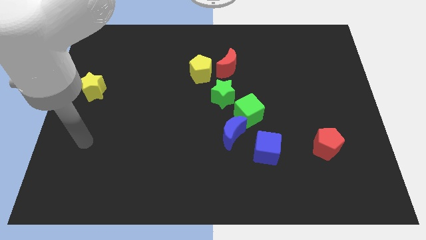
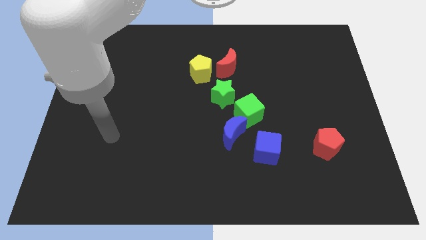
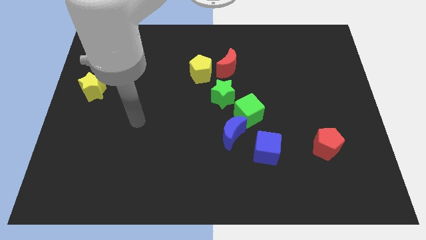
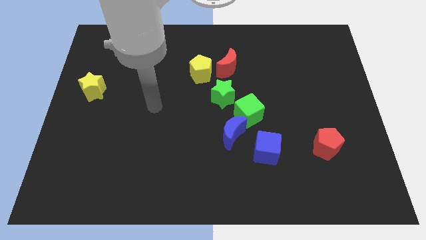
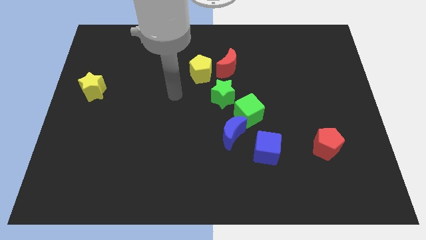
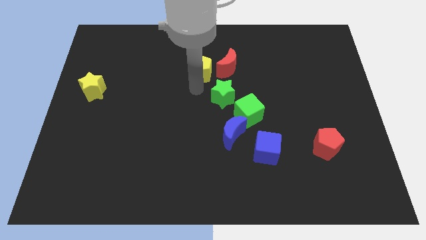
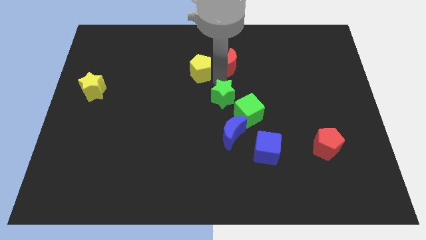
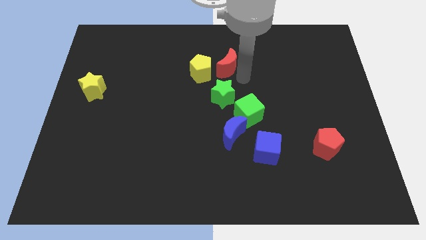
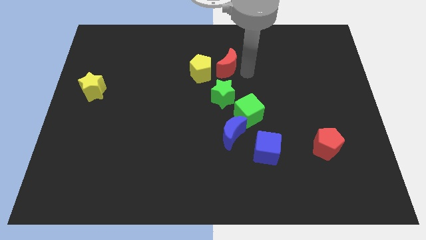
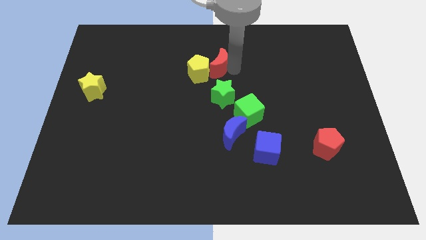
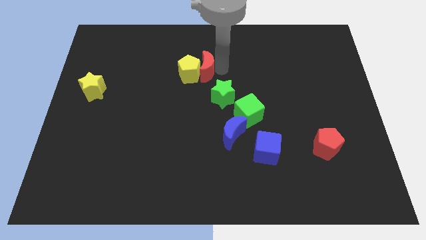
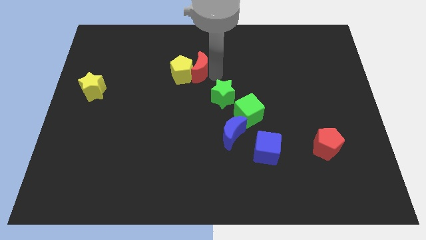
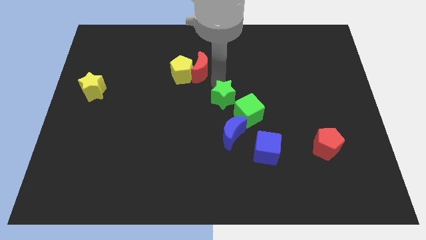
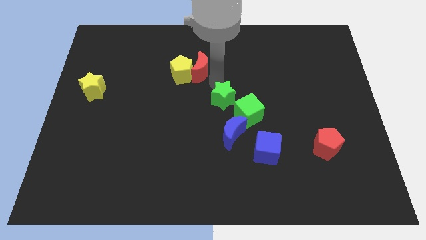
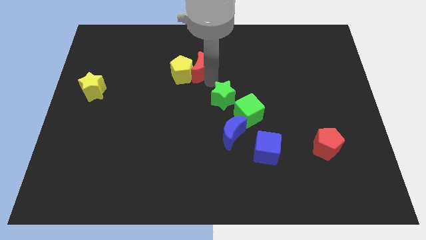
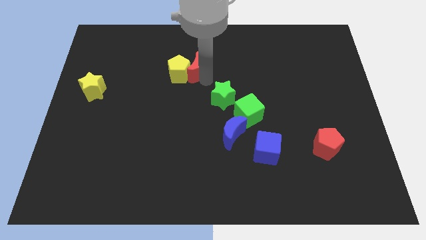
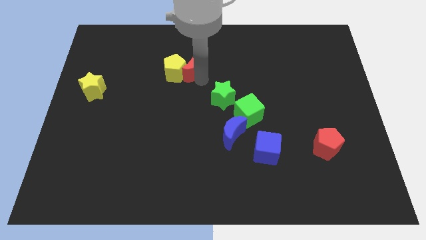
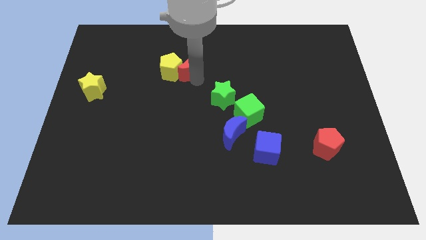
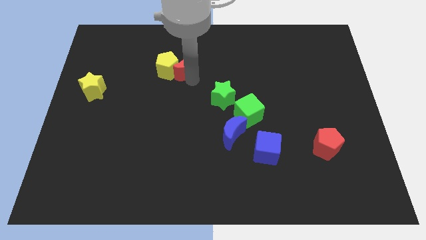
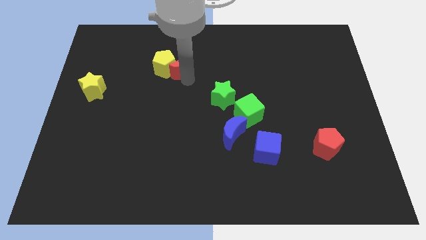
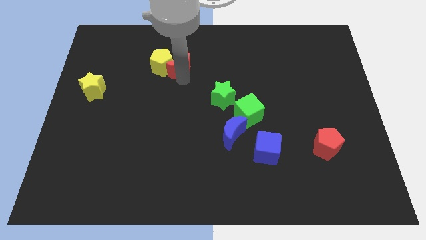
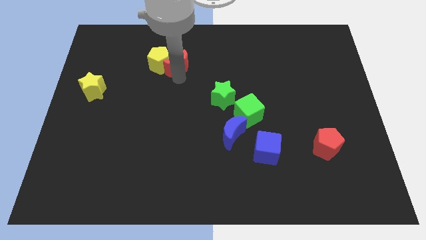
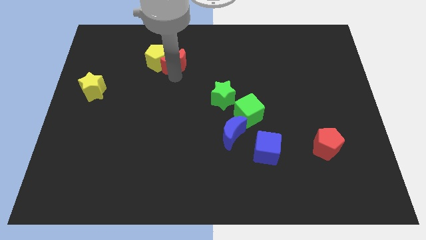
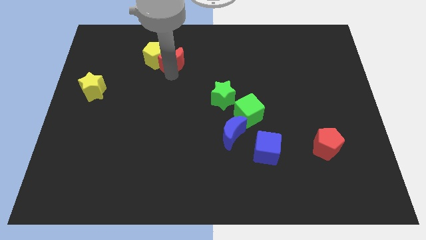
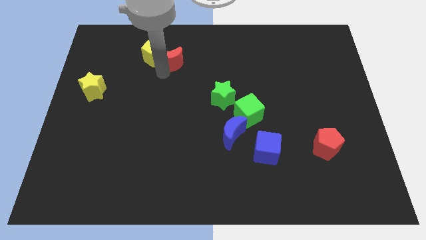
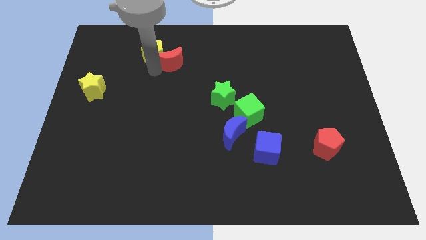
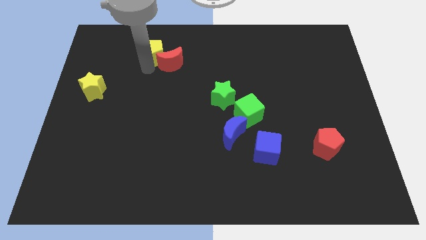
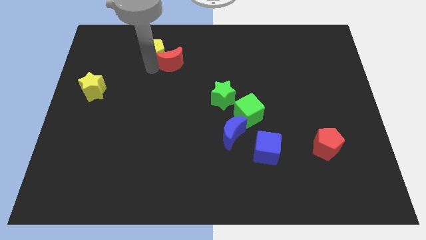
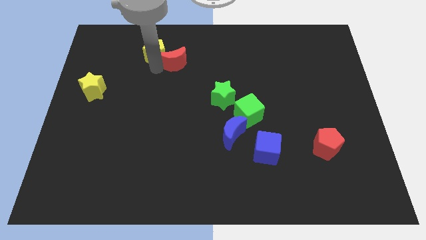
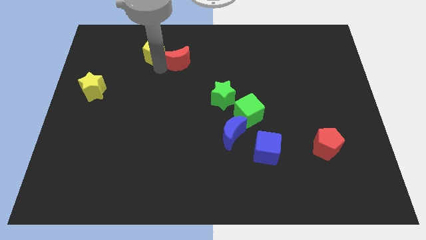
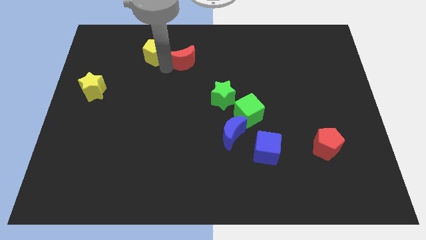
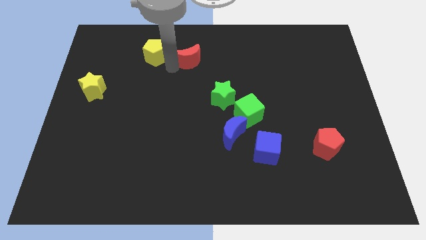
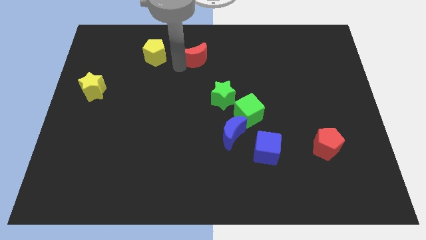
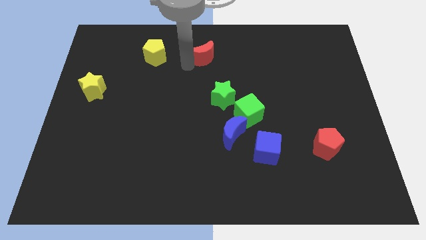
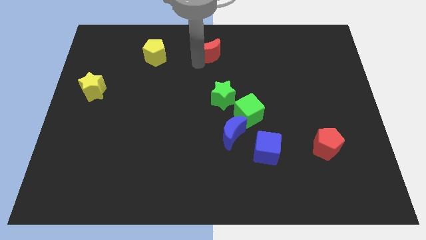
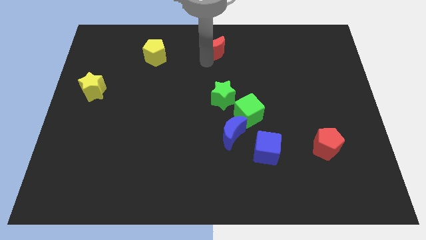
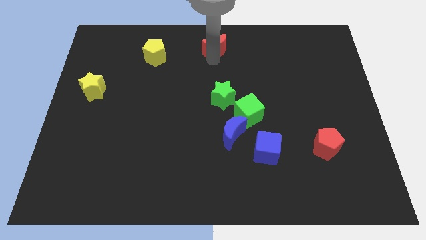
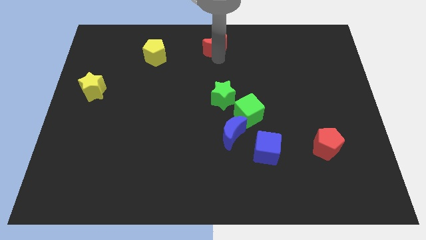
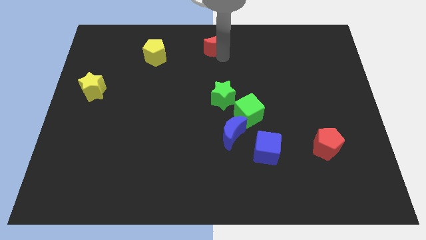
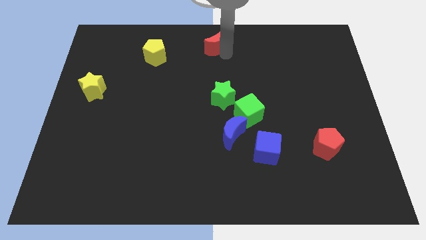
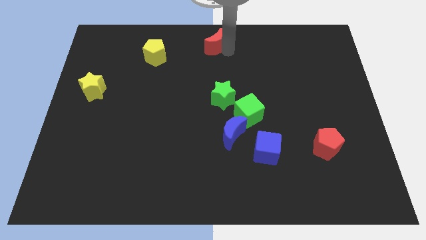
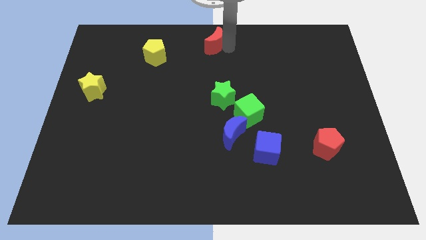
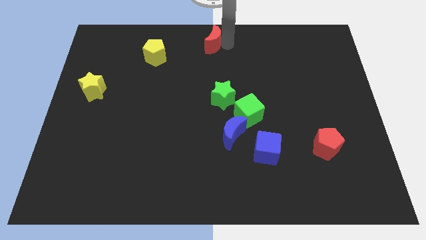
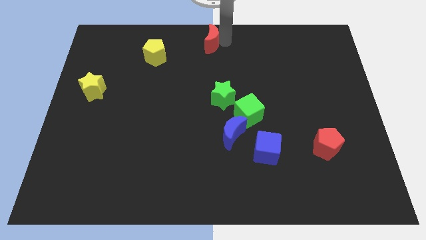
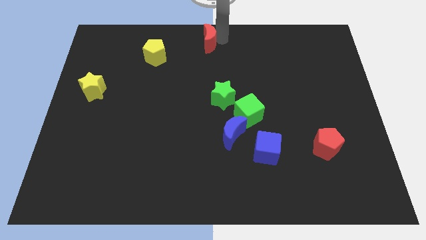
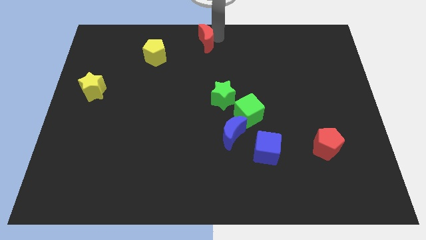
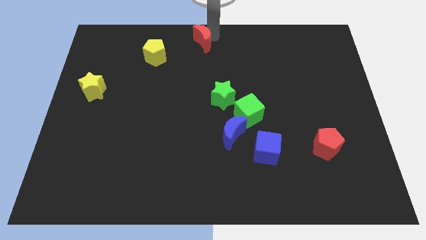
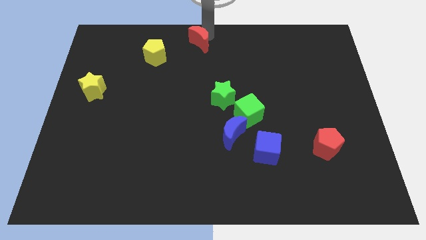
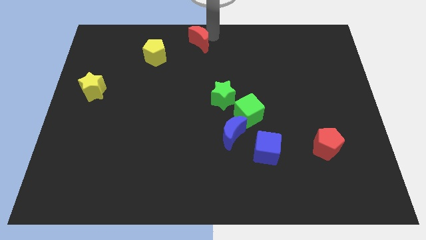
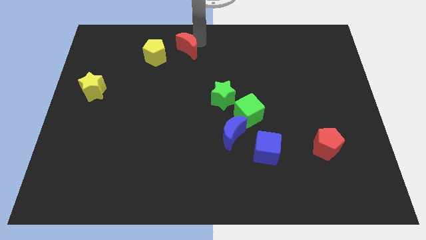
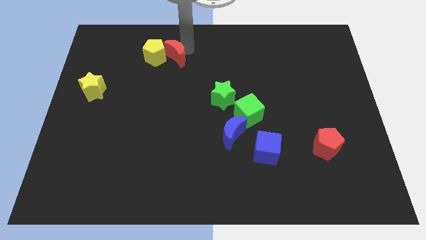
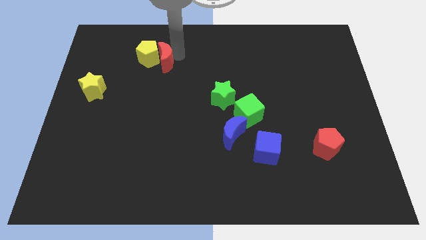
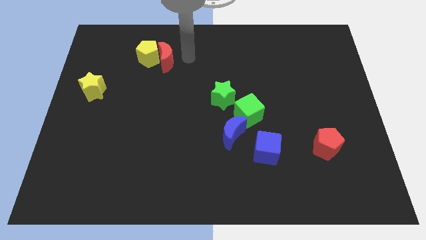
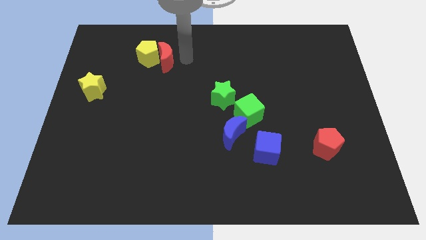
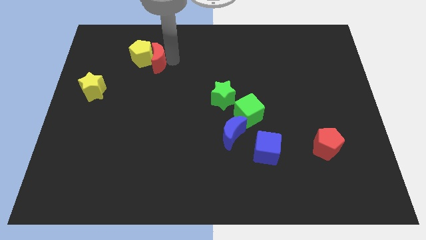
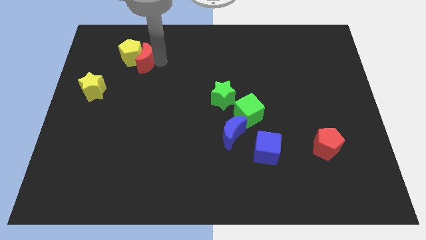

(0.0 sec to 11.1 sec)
slide the red moon left

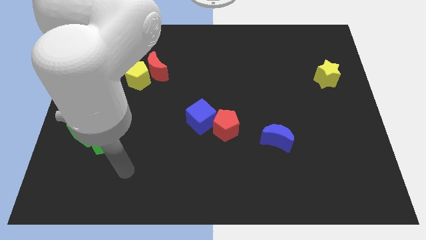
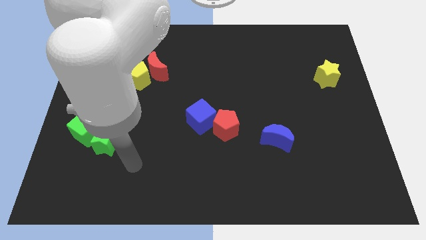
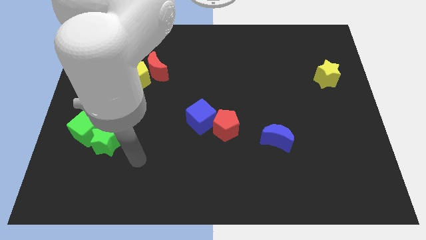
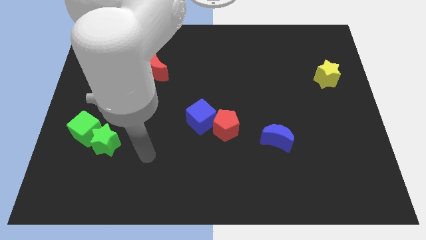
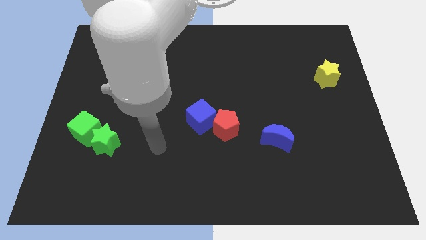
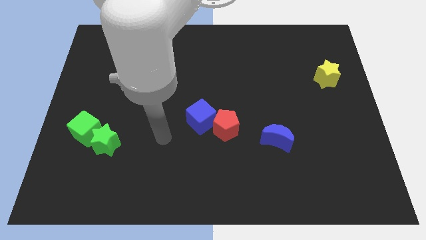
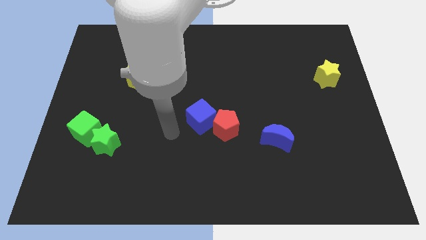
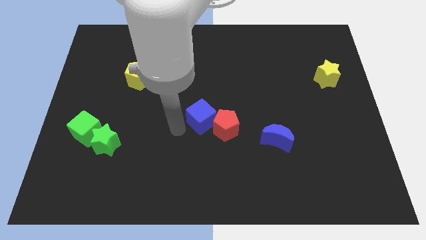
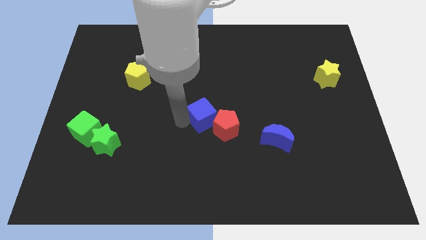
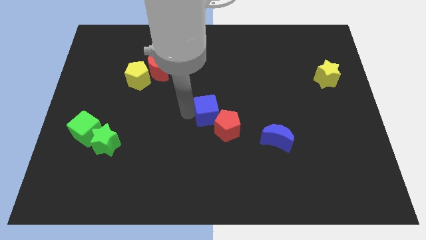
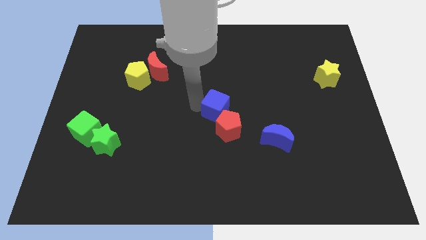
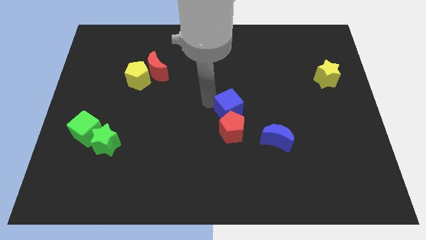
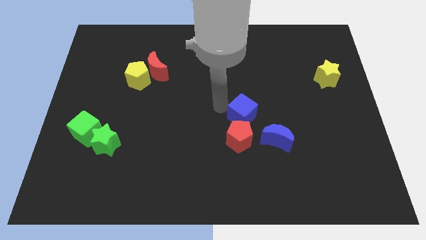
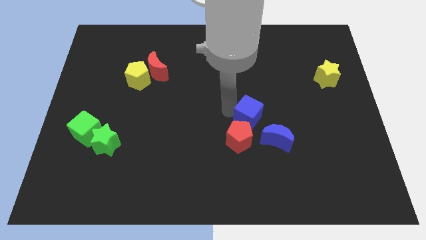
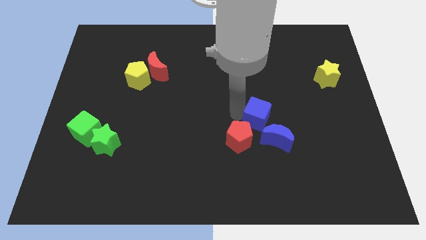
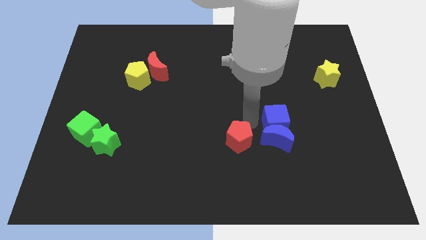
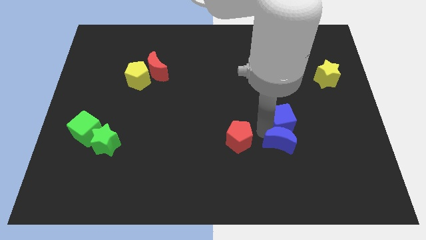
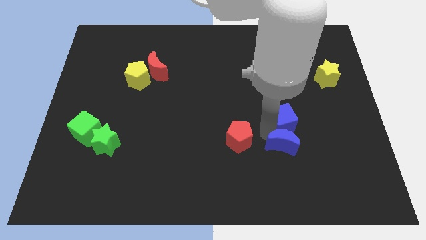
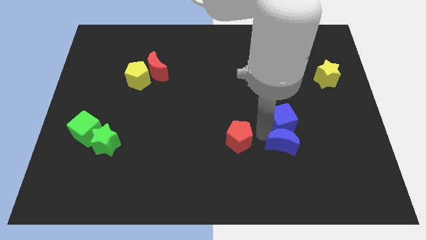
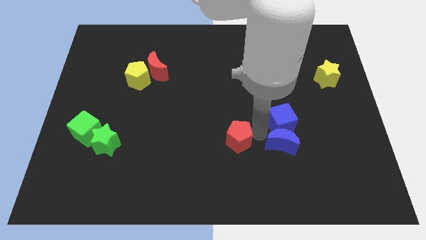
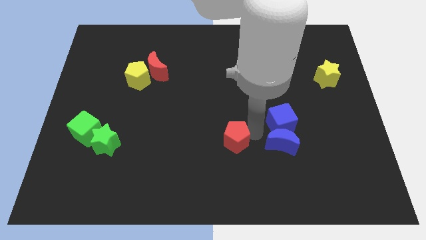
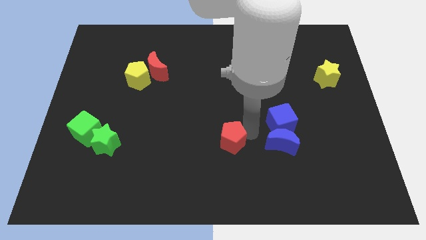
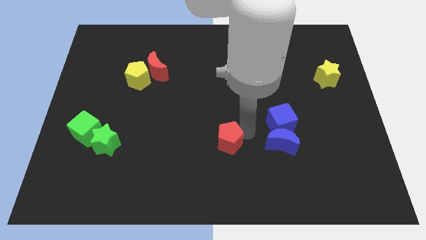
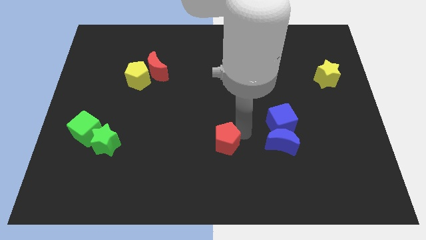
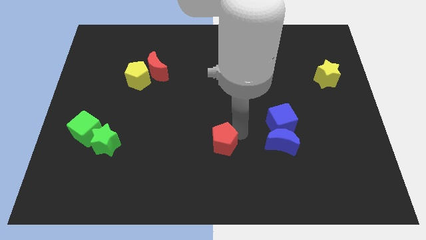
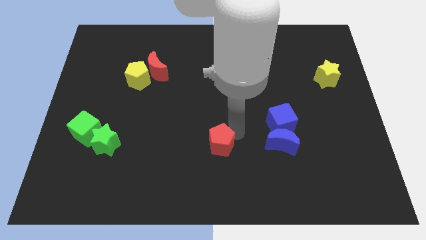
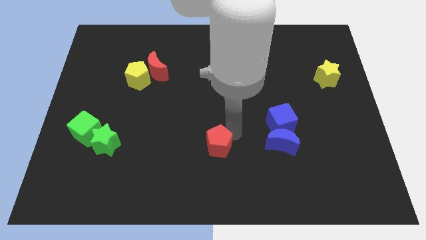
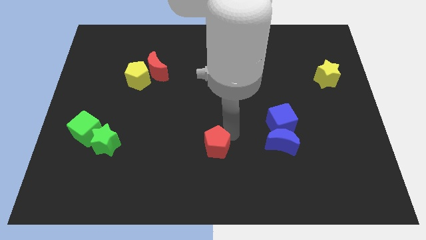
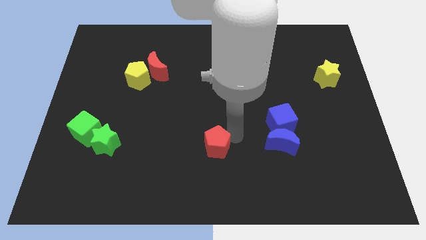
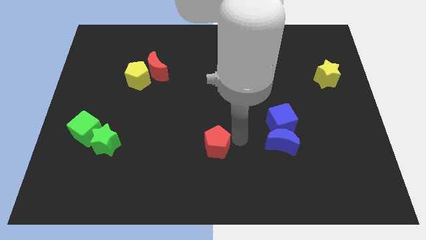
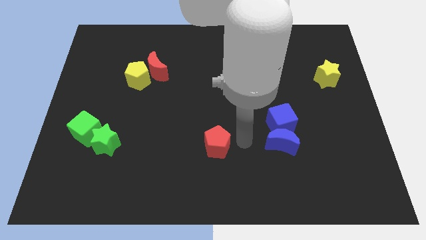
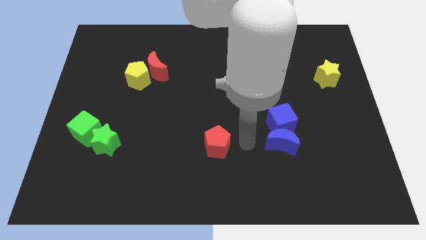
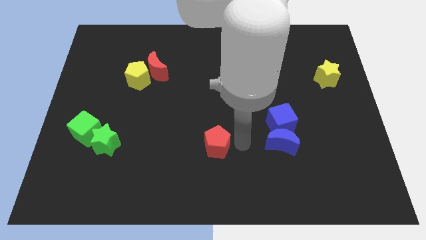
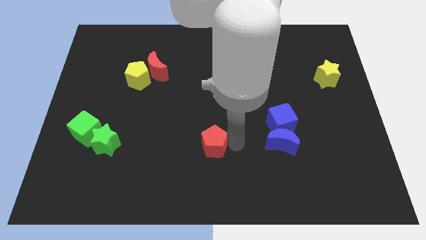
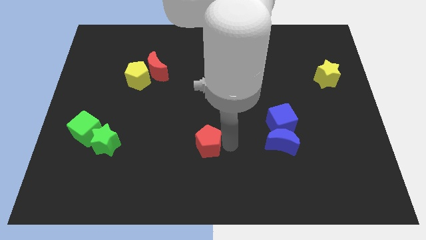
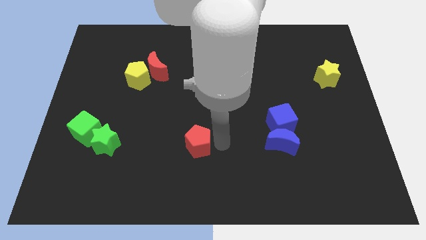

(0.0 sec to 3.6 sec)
slightly slide the red pentagon down and left diagonally
